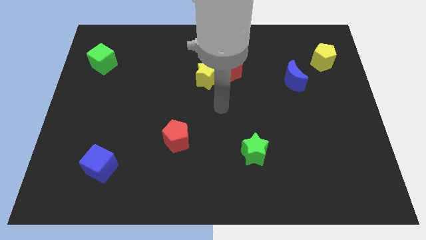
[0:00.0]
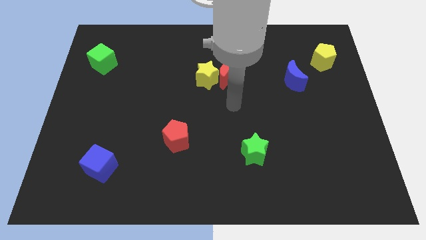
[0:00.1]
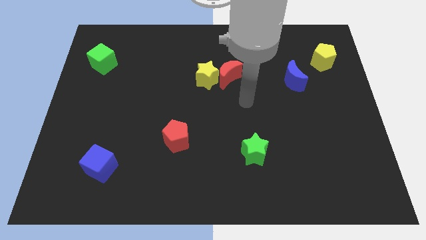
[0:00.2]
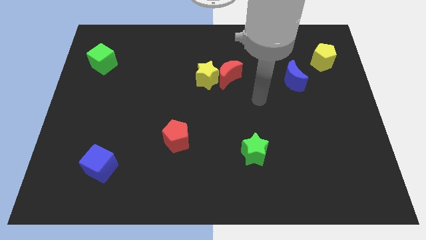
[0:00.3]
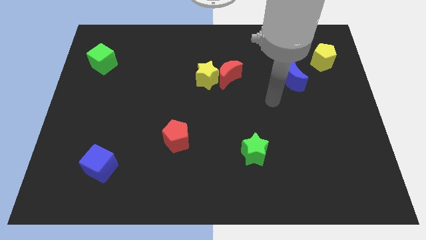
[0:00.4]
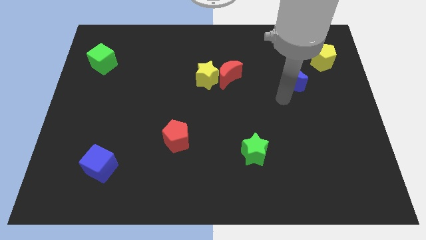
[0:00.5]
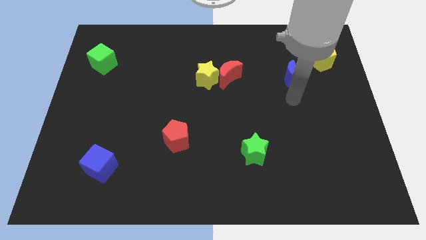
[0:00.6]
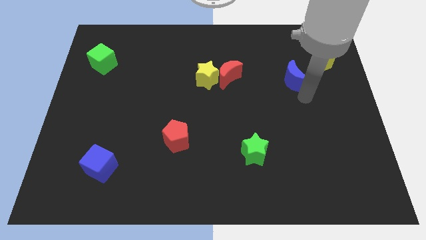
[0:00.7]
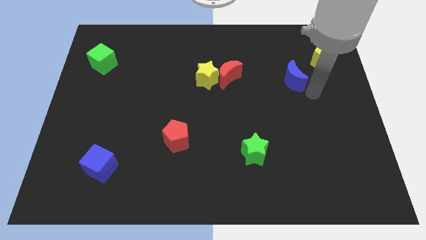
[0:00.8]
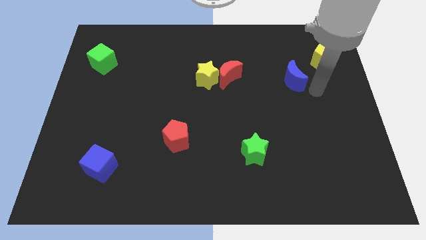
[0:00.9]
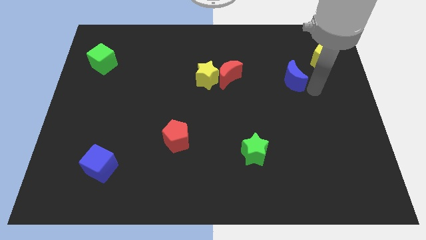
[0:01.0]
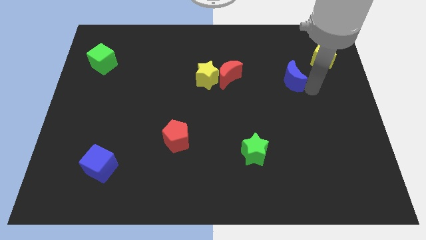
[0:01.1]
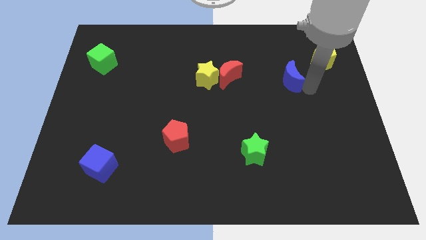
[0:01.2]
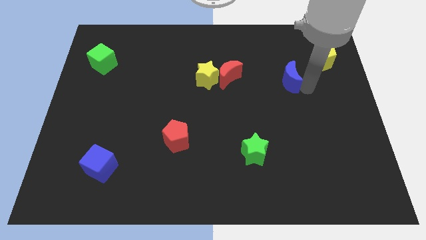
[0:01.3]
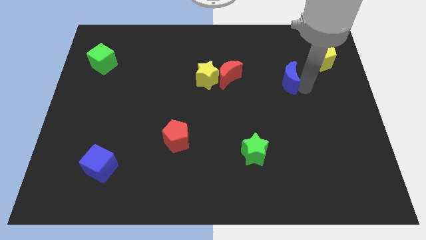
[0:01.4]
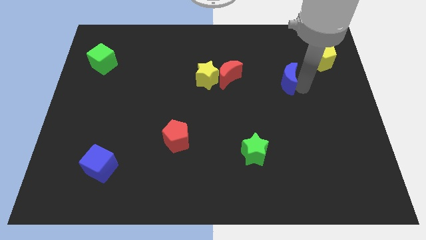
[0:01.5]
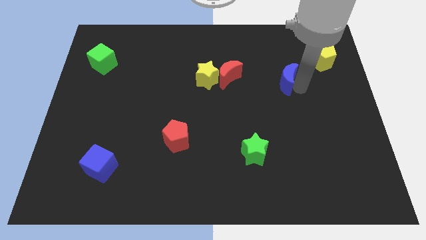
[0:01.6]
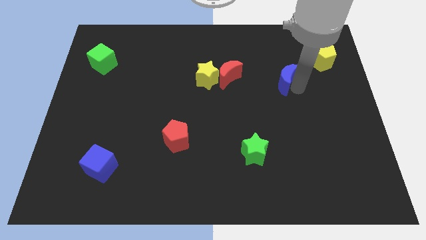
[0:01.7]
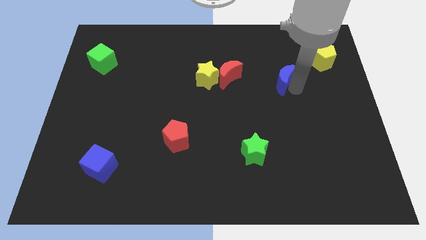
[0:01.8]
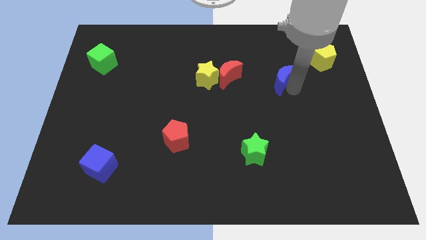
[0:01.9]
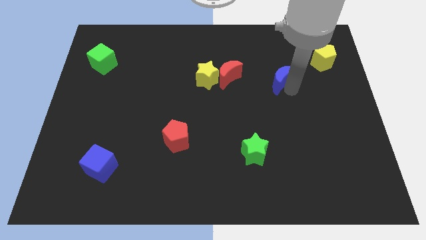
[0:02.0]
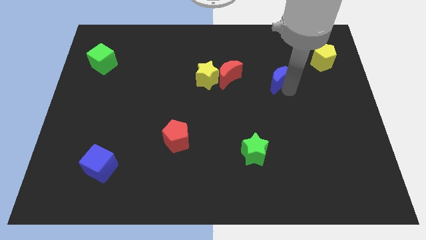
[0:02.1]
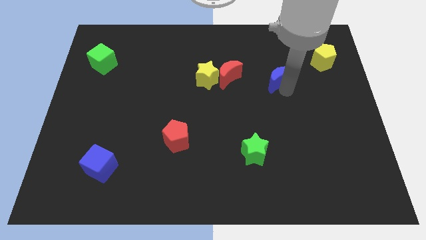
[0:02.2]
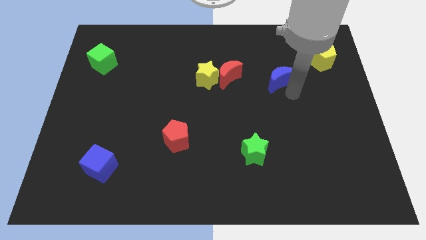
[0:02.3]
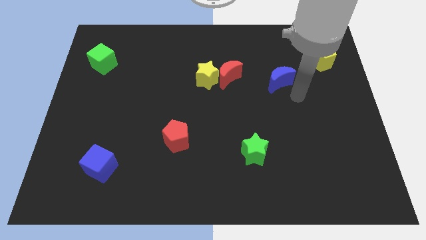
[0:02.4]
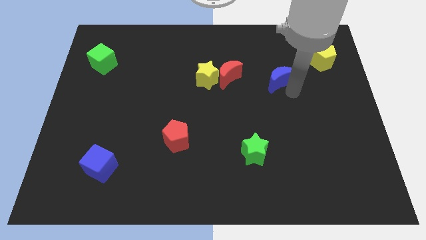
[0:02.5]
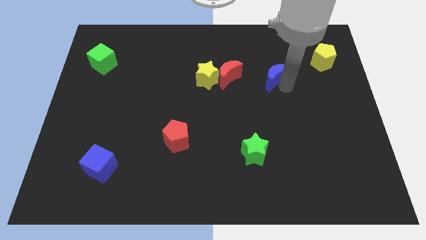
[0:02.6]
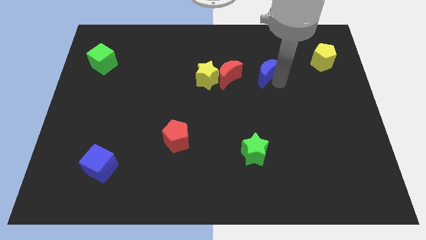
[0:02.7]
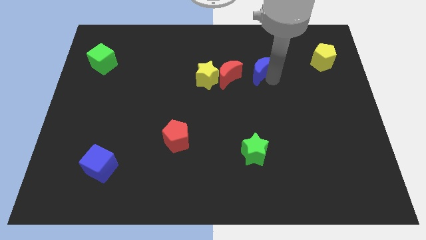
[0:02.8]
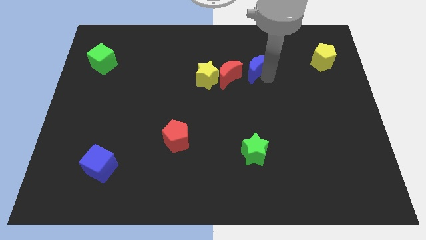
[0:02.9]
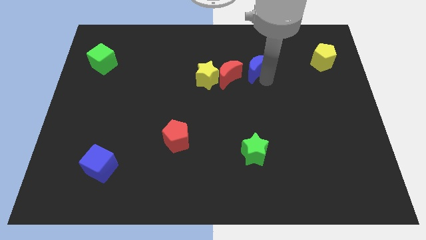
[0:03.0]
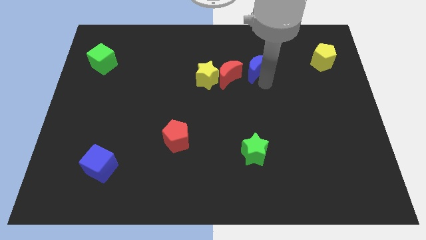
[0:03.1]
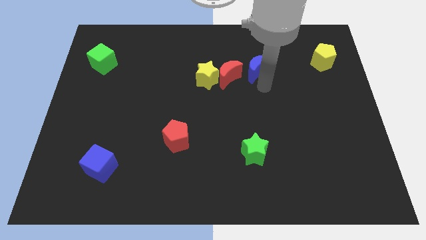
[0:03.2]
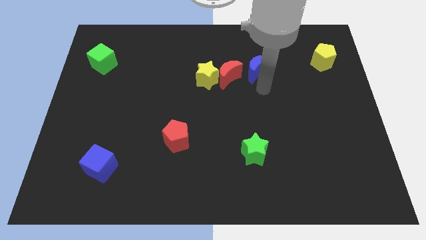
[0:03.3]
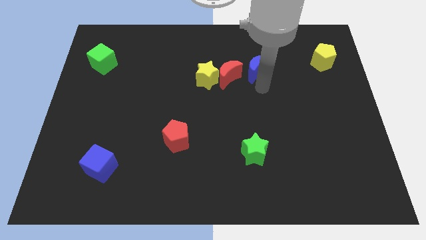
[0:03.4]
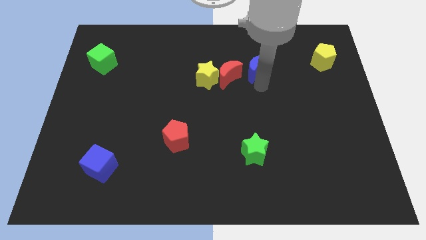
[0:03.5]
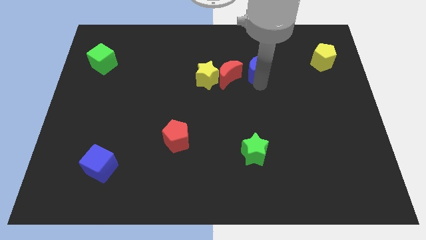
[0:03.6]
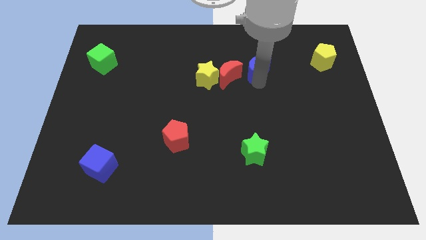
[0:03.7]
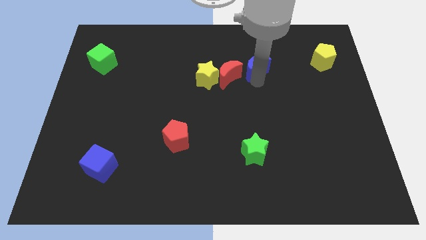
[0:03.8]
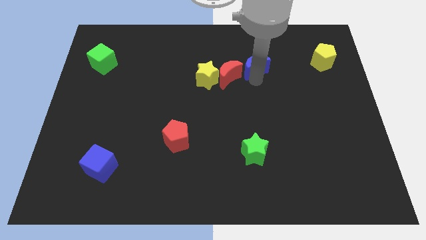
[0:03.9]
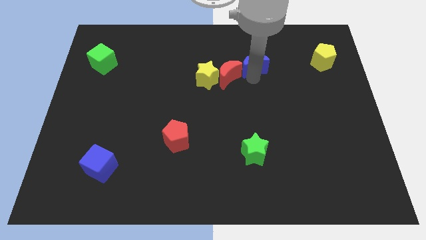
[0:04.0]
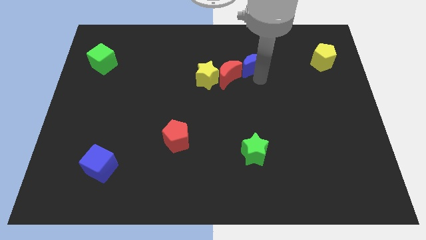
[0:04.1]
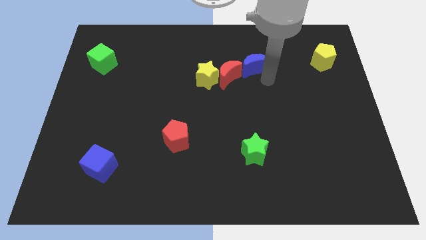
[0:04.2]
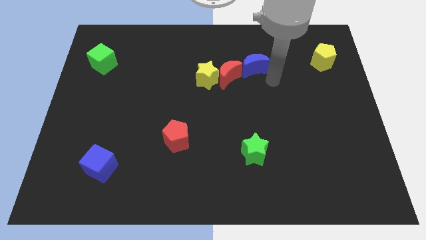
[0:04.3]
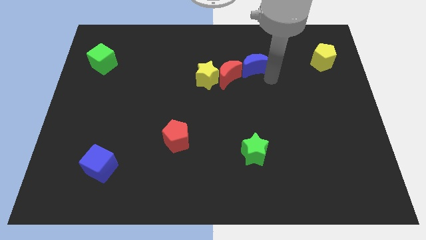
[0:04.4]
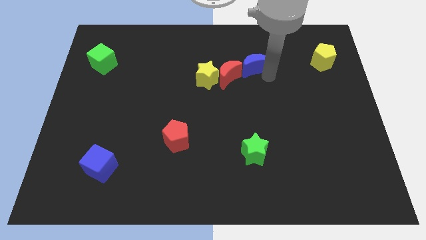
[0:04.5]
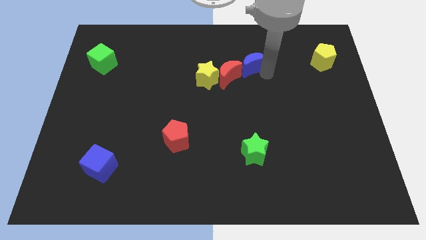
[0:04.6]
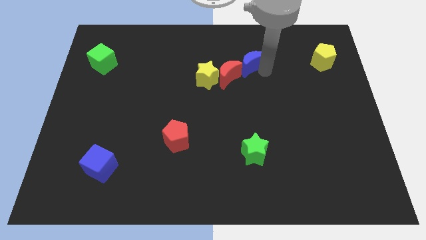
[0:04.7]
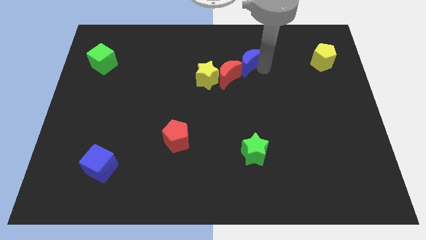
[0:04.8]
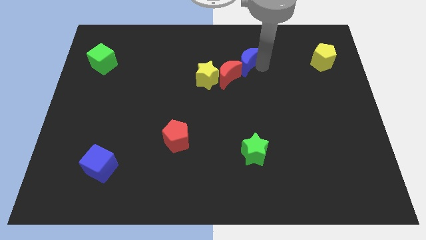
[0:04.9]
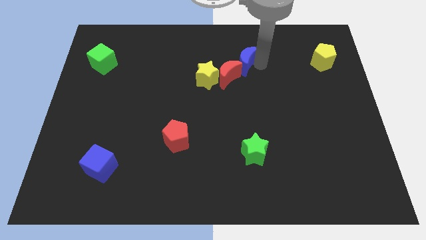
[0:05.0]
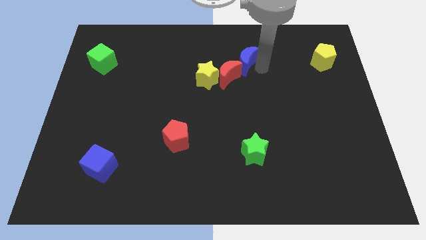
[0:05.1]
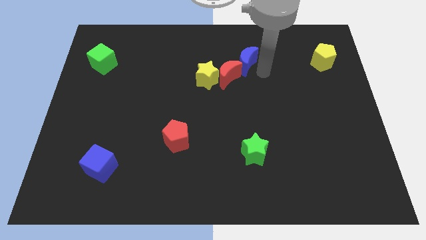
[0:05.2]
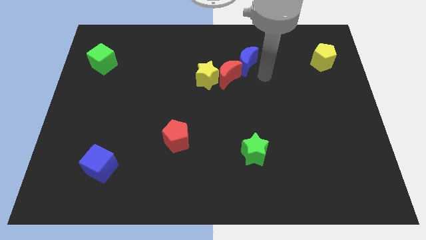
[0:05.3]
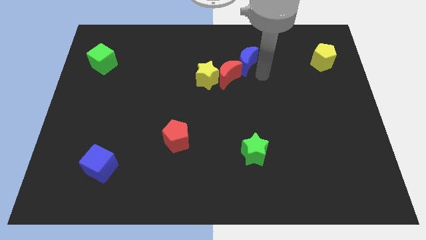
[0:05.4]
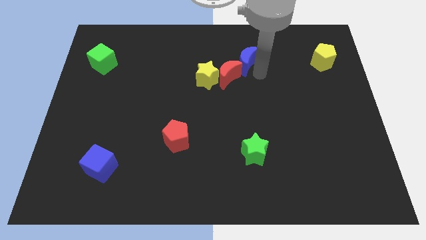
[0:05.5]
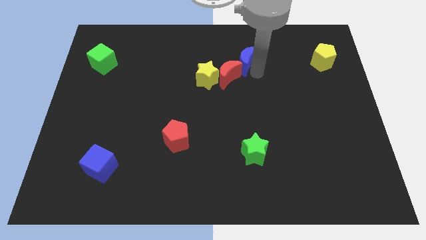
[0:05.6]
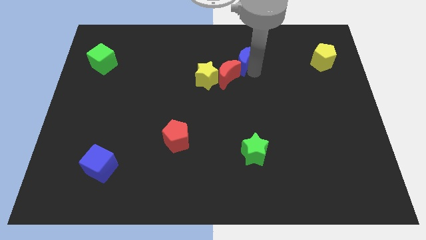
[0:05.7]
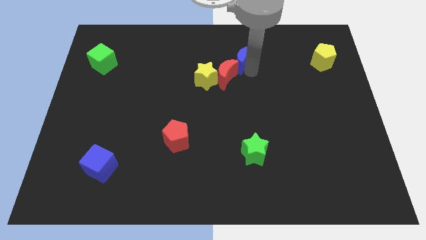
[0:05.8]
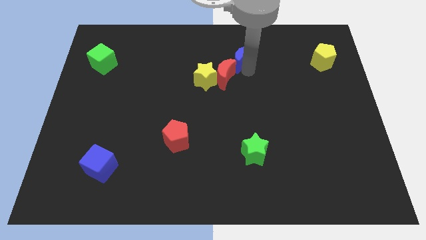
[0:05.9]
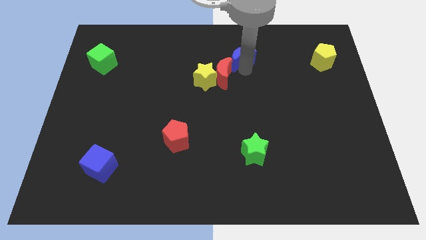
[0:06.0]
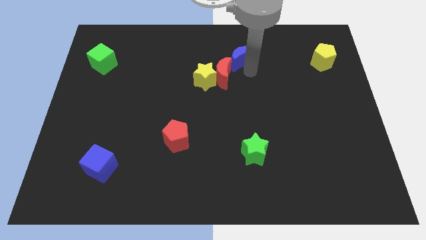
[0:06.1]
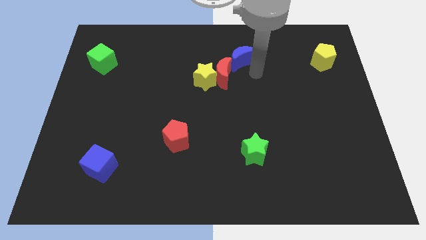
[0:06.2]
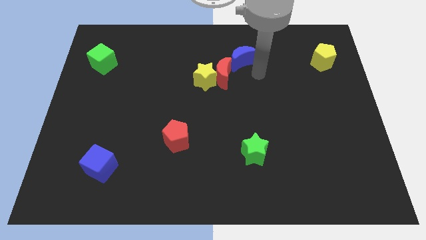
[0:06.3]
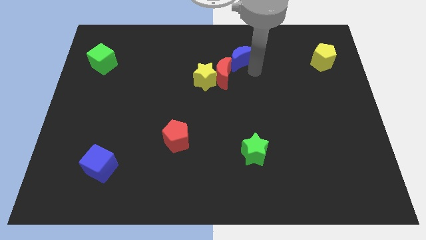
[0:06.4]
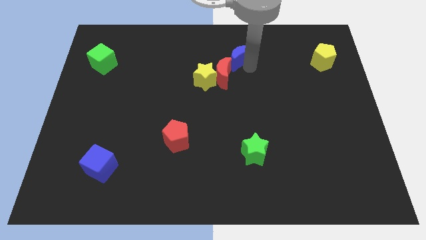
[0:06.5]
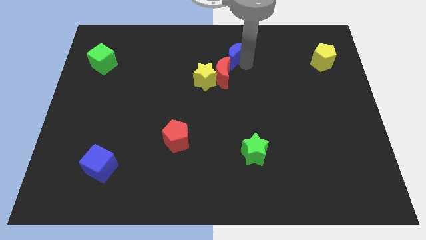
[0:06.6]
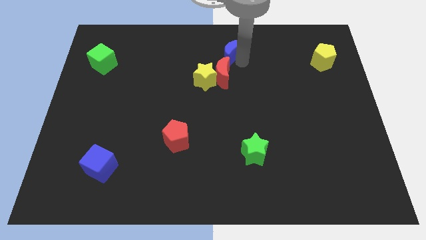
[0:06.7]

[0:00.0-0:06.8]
push the blue moon to the top
